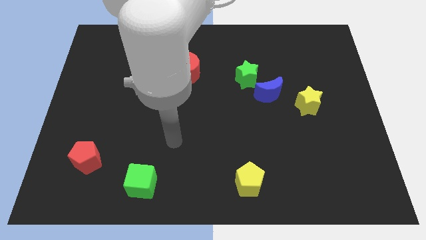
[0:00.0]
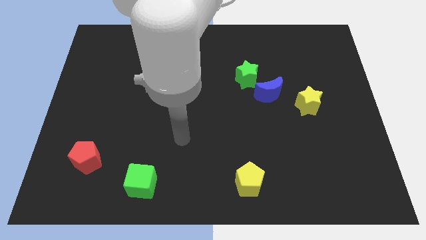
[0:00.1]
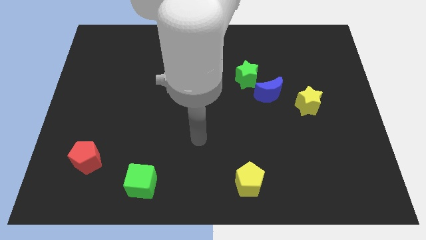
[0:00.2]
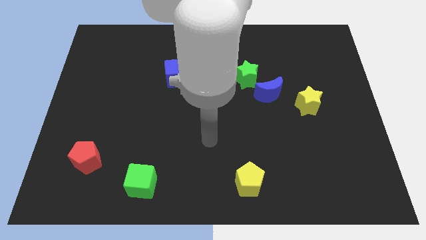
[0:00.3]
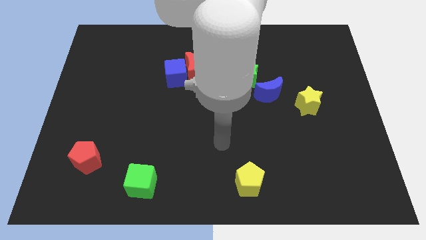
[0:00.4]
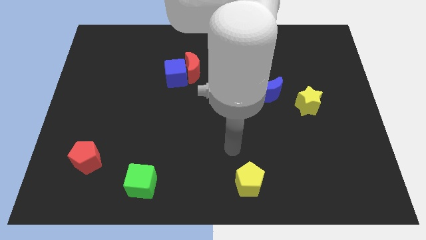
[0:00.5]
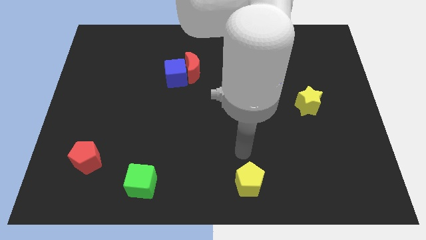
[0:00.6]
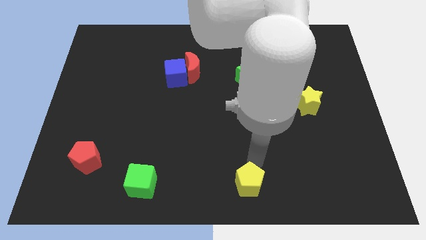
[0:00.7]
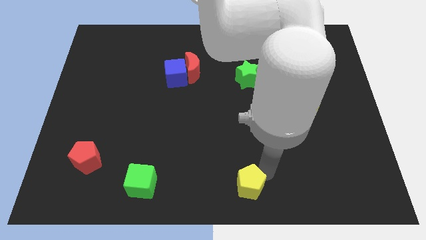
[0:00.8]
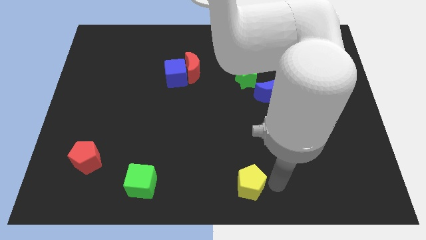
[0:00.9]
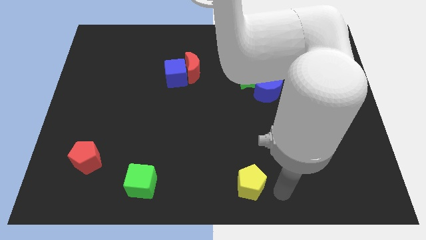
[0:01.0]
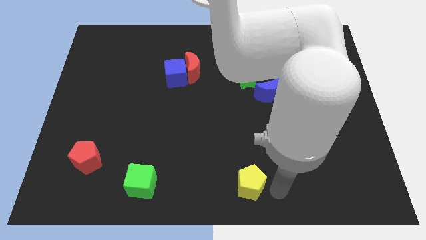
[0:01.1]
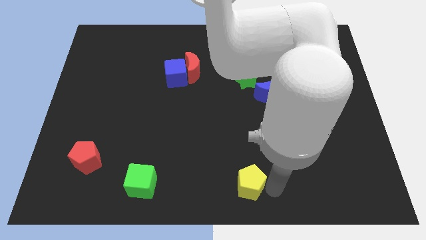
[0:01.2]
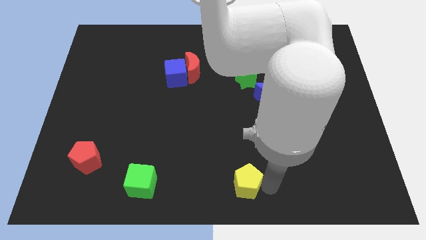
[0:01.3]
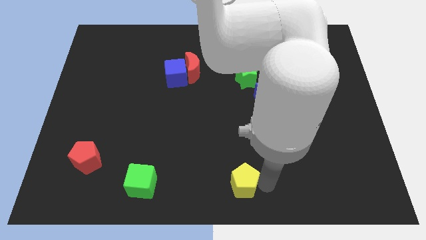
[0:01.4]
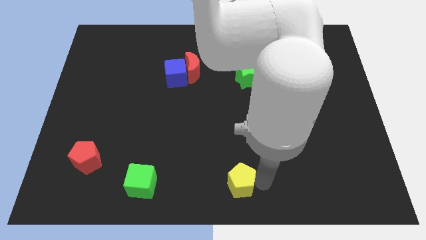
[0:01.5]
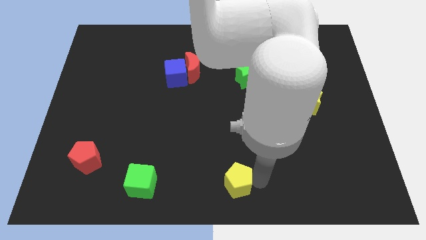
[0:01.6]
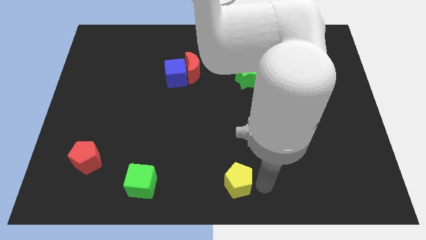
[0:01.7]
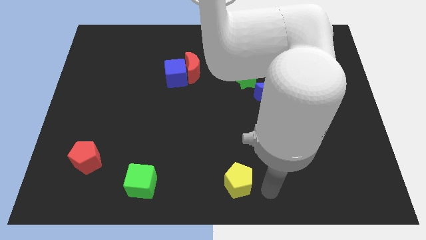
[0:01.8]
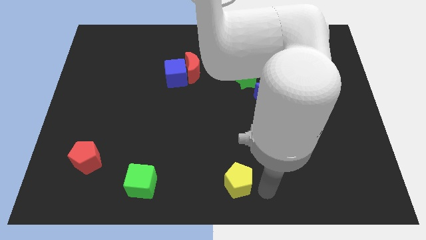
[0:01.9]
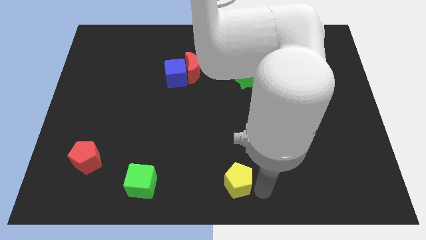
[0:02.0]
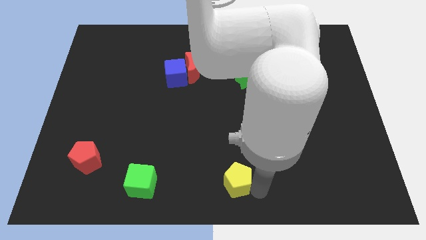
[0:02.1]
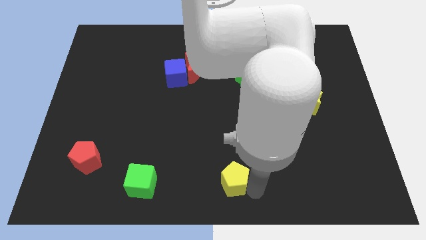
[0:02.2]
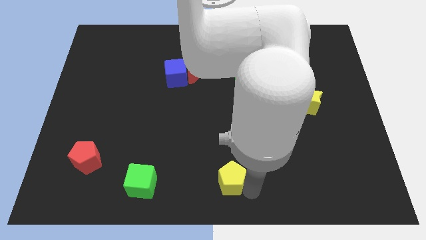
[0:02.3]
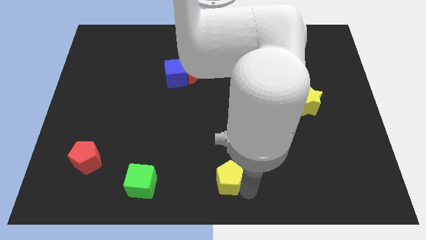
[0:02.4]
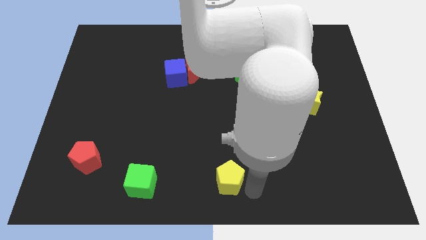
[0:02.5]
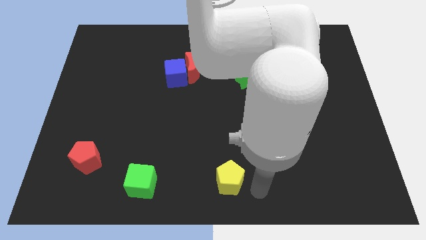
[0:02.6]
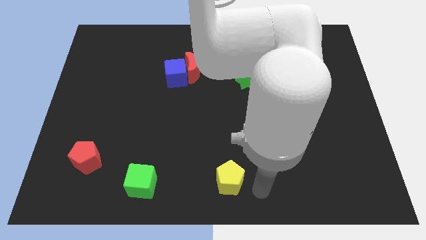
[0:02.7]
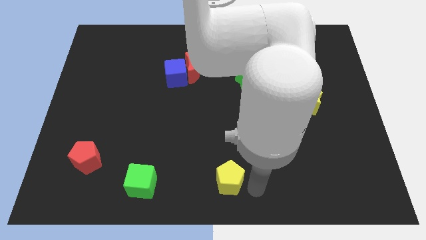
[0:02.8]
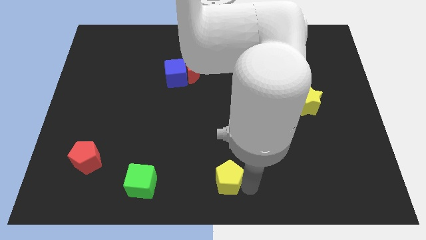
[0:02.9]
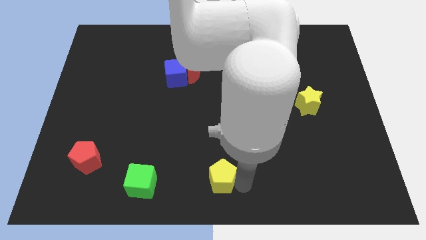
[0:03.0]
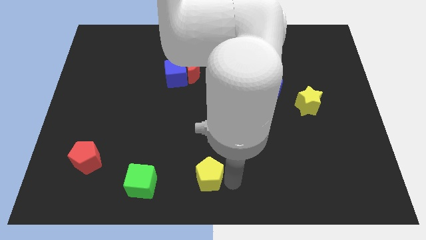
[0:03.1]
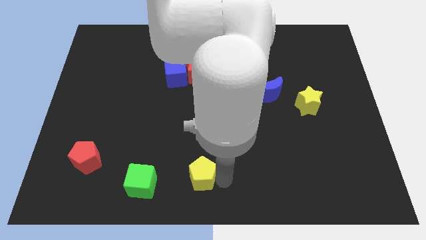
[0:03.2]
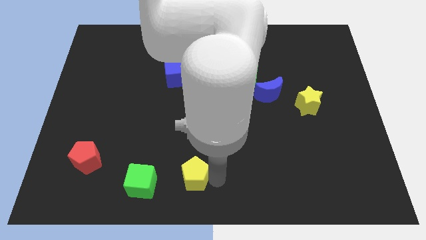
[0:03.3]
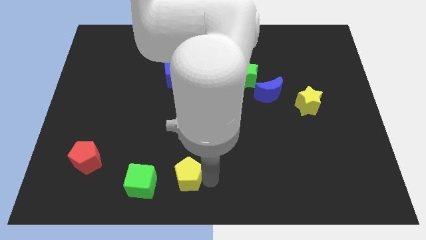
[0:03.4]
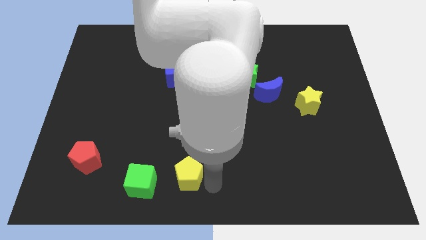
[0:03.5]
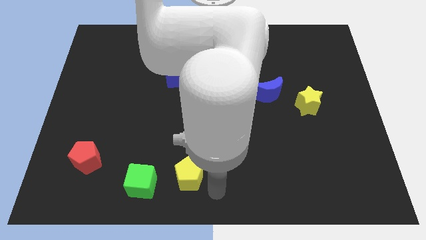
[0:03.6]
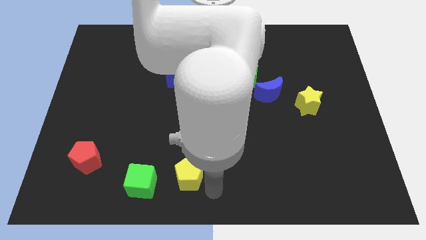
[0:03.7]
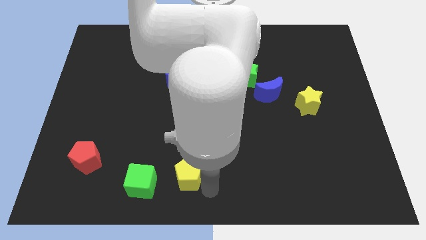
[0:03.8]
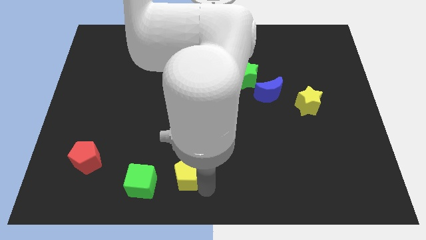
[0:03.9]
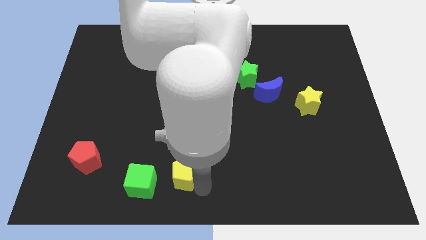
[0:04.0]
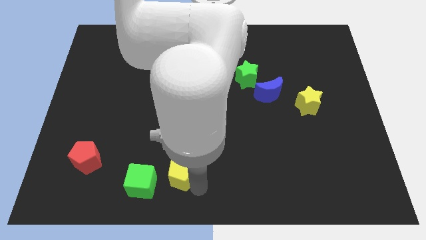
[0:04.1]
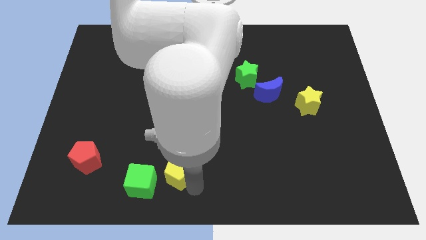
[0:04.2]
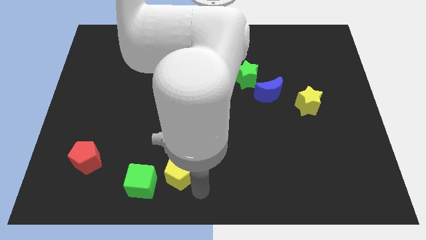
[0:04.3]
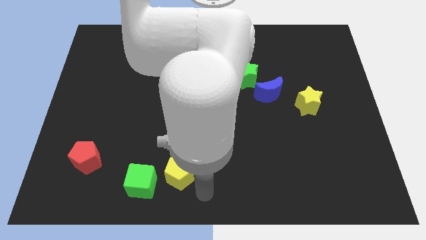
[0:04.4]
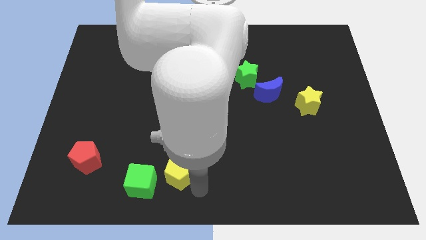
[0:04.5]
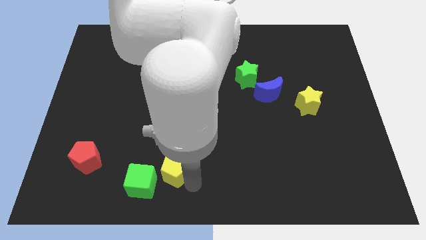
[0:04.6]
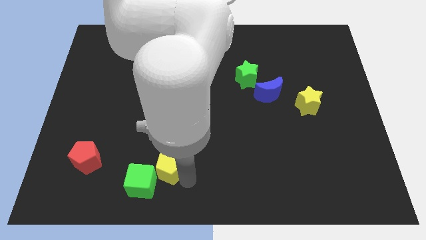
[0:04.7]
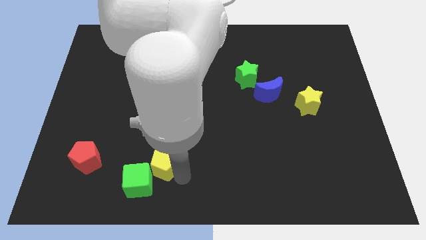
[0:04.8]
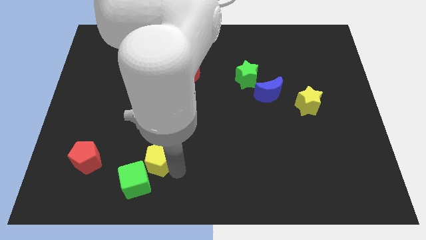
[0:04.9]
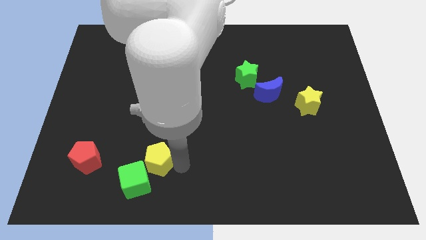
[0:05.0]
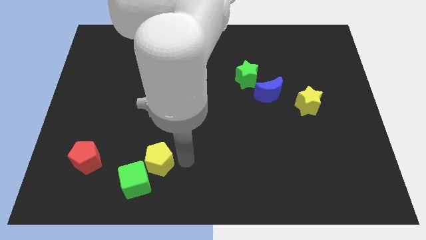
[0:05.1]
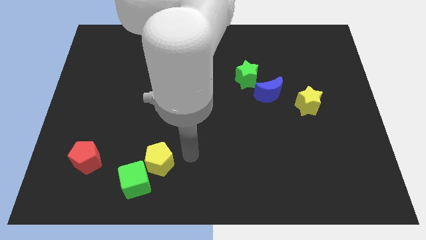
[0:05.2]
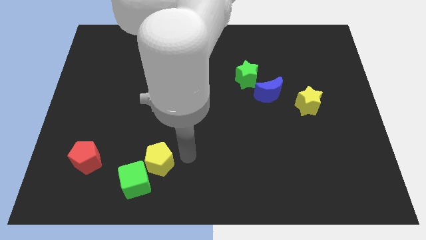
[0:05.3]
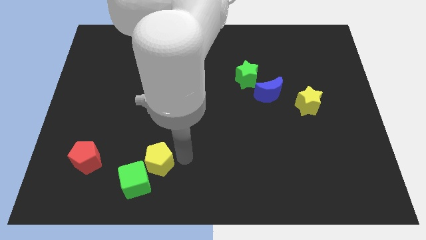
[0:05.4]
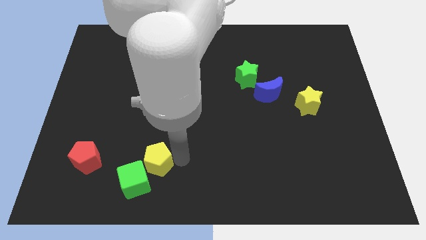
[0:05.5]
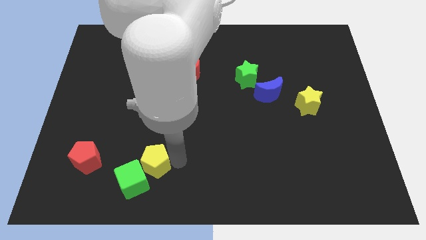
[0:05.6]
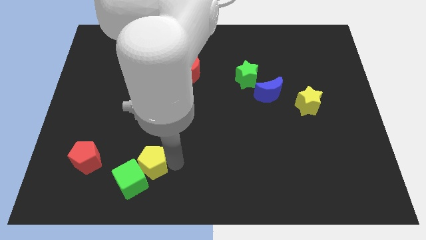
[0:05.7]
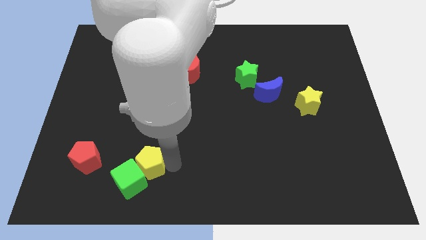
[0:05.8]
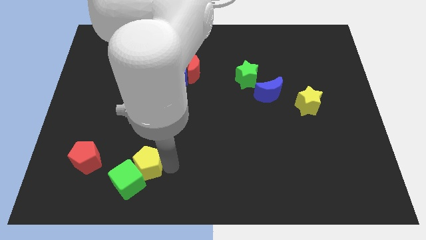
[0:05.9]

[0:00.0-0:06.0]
slide the yellow pentagon to the left

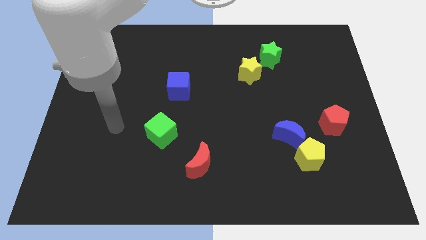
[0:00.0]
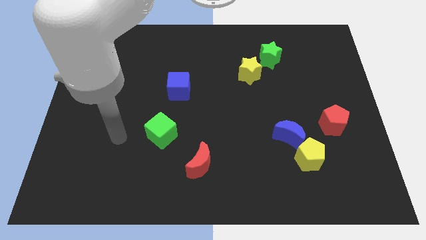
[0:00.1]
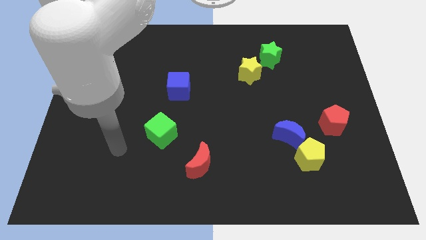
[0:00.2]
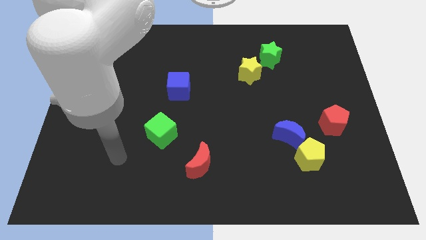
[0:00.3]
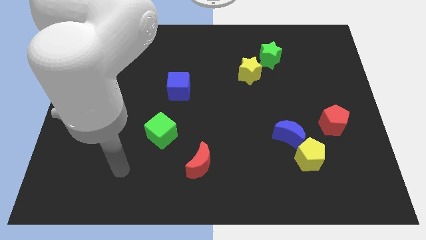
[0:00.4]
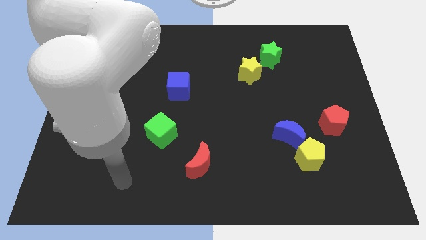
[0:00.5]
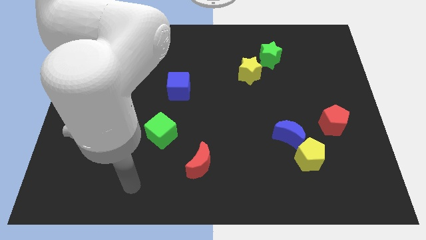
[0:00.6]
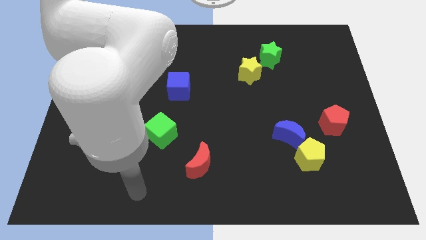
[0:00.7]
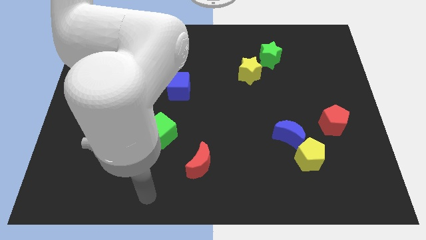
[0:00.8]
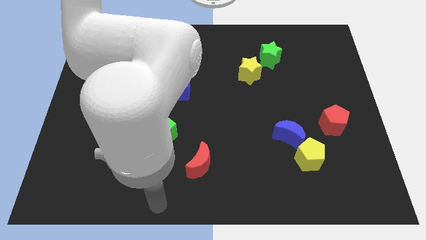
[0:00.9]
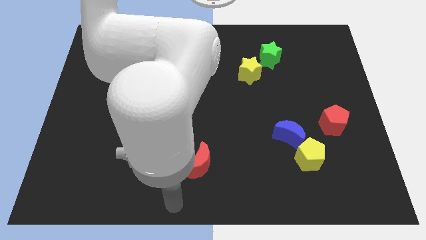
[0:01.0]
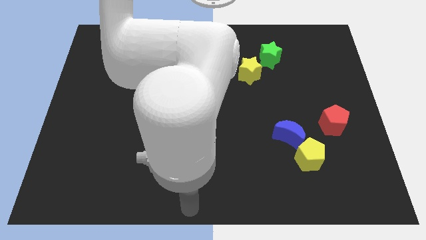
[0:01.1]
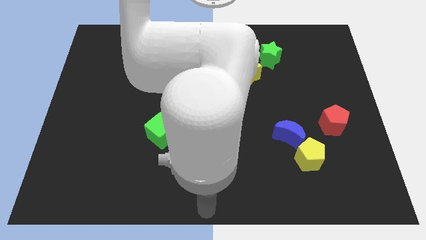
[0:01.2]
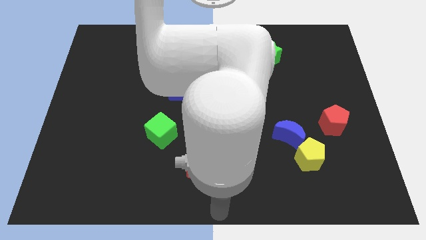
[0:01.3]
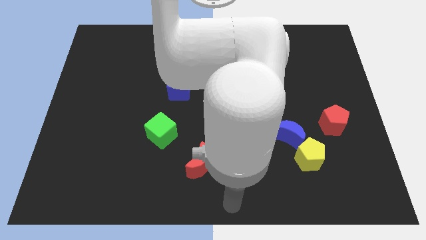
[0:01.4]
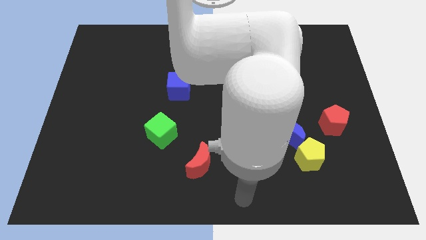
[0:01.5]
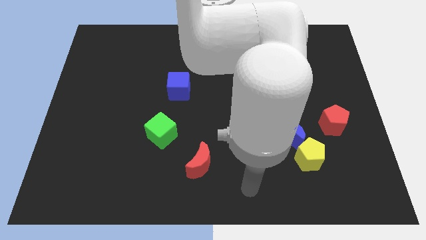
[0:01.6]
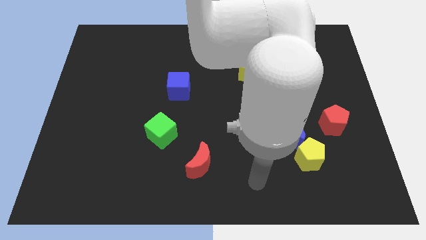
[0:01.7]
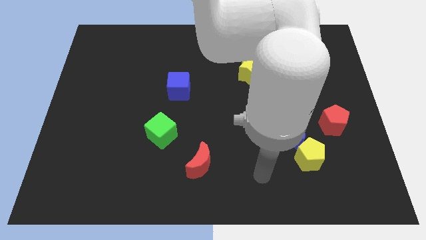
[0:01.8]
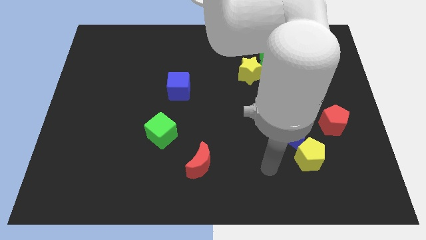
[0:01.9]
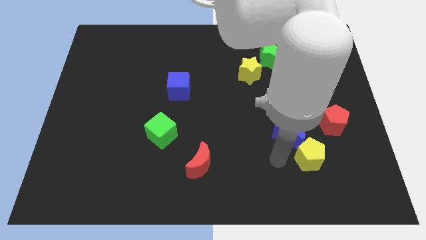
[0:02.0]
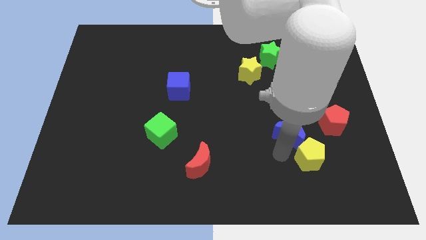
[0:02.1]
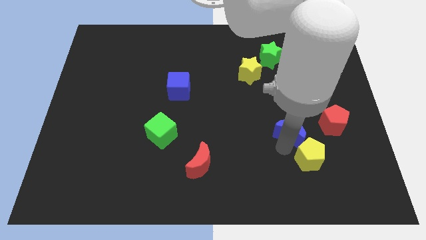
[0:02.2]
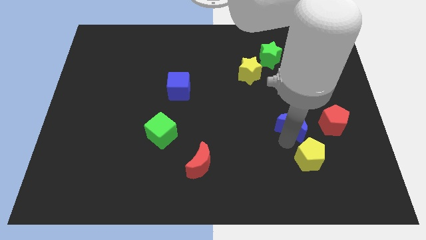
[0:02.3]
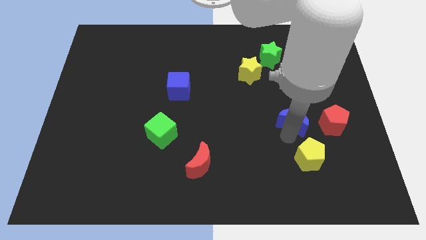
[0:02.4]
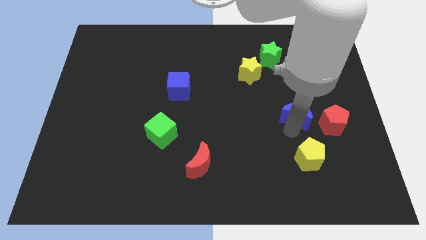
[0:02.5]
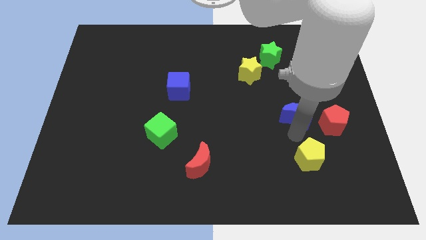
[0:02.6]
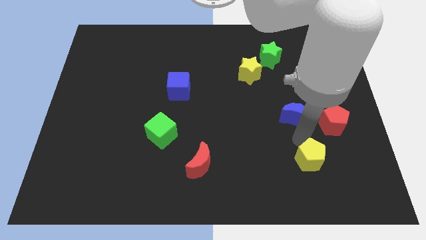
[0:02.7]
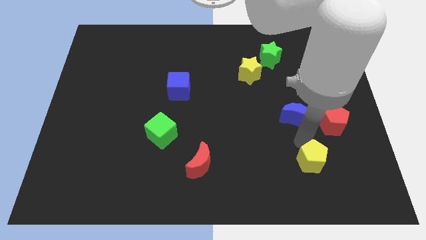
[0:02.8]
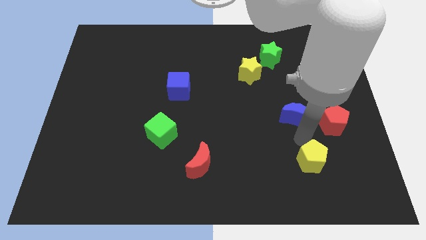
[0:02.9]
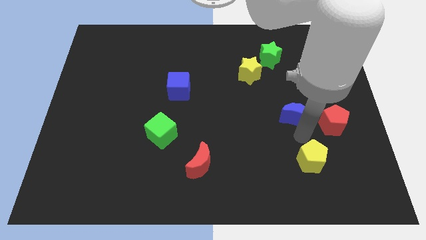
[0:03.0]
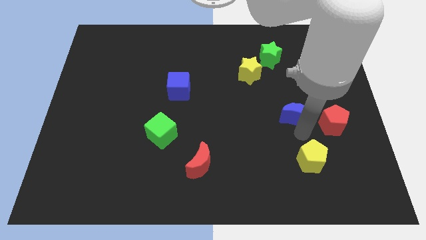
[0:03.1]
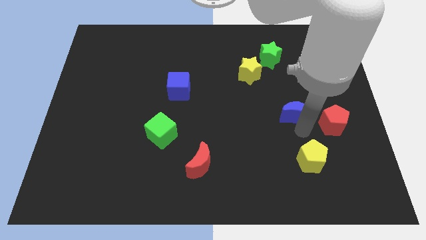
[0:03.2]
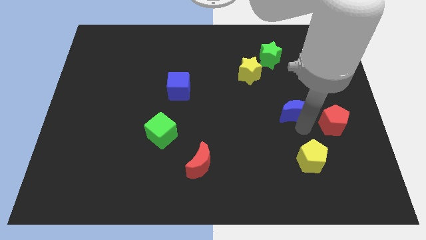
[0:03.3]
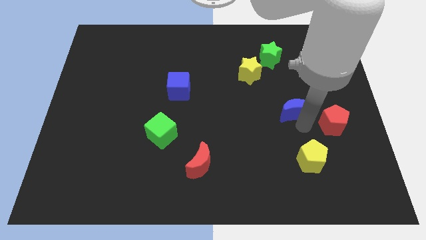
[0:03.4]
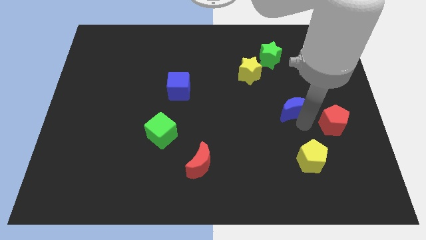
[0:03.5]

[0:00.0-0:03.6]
move the blue moon upwards a little
